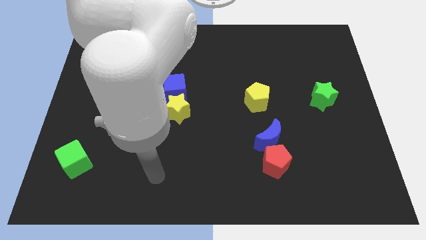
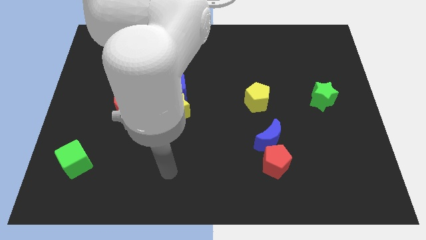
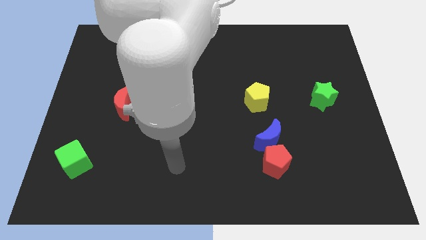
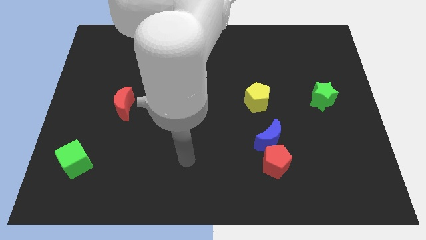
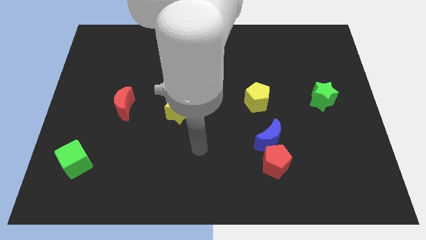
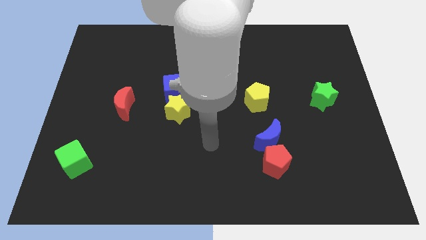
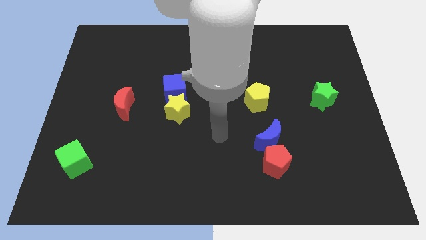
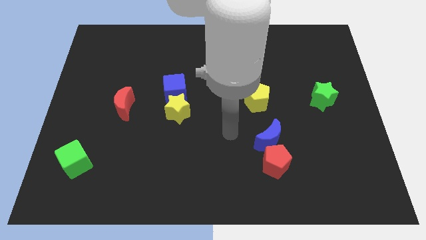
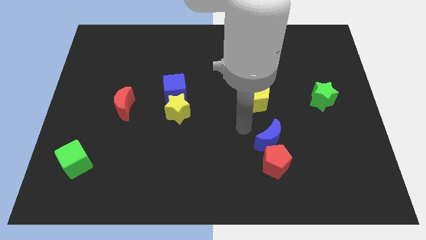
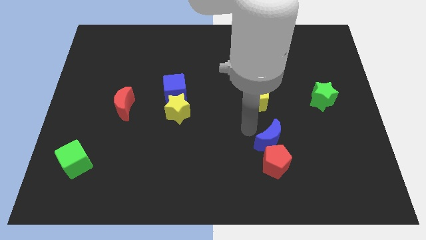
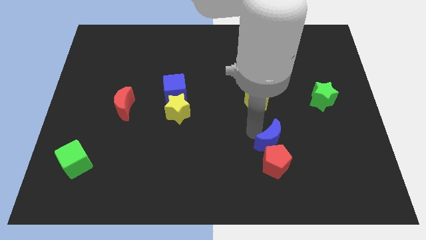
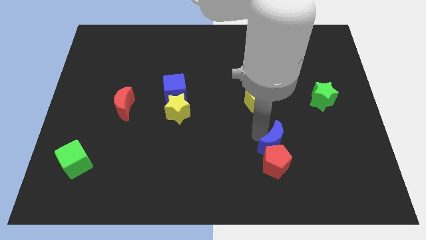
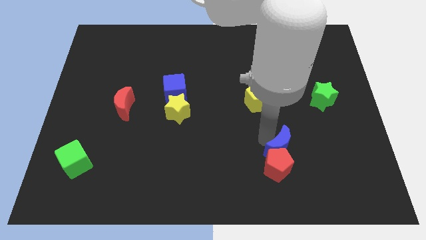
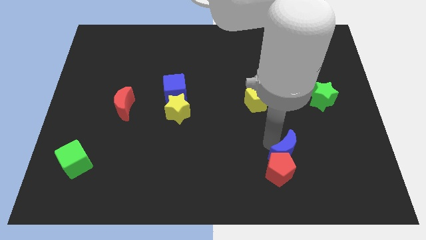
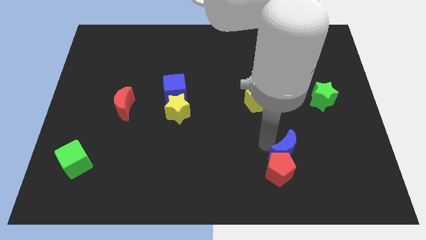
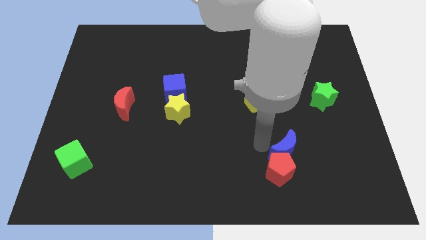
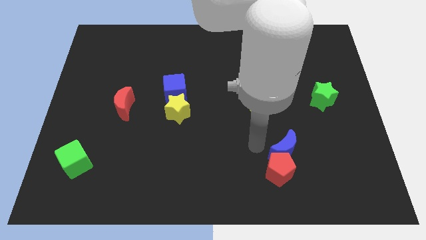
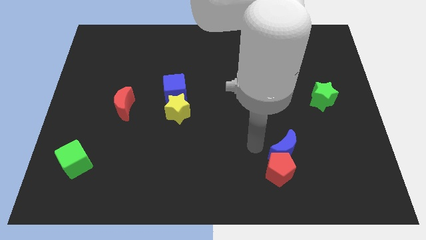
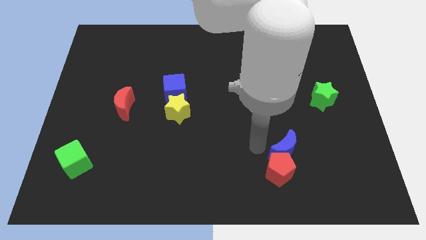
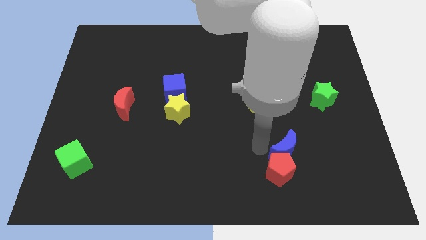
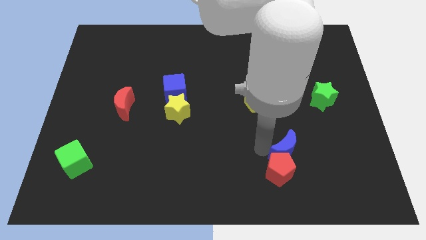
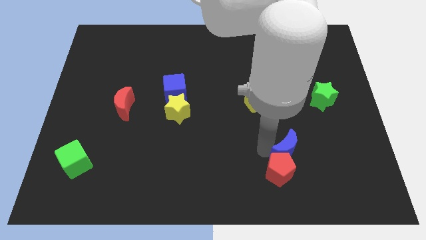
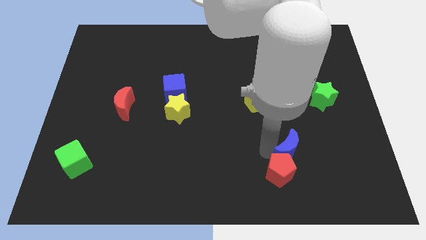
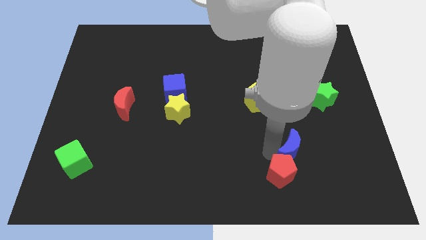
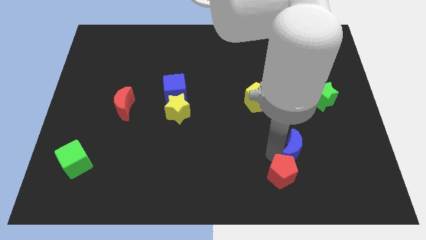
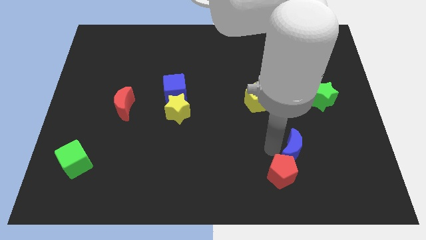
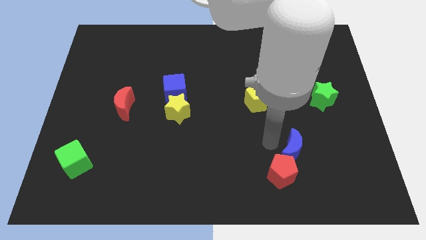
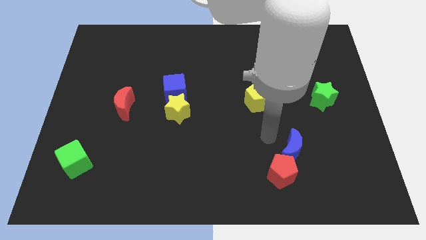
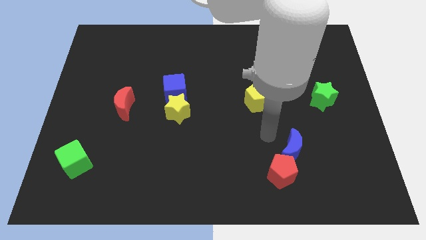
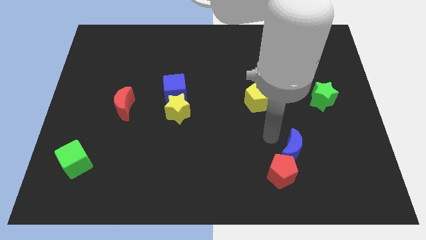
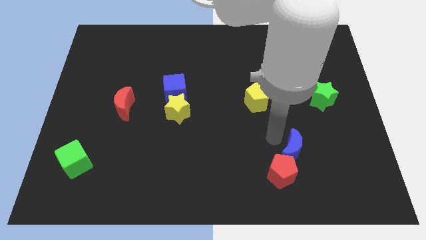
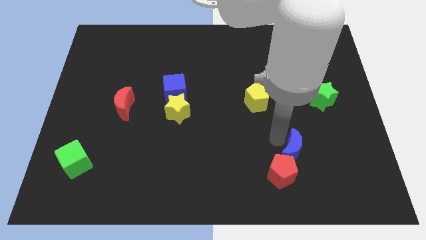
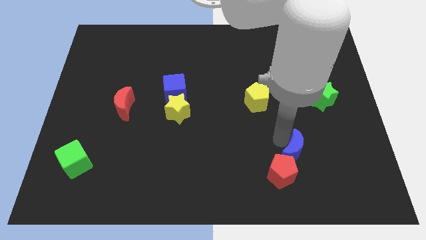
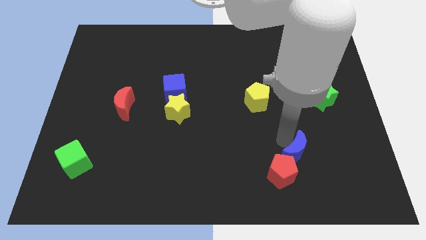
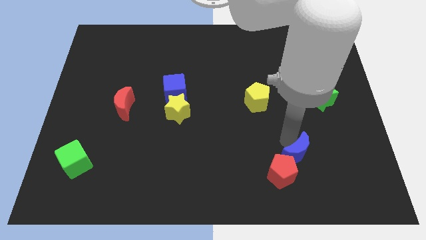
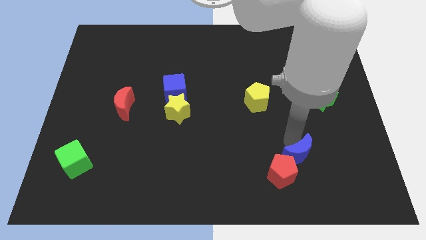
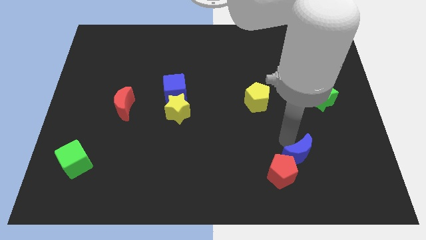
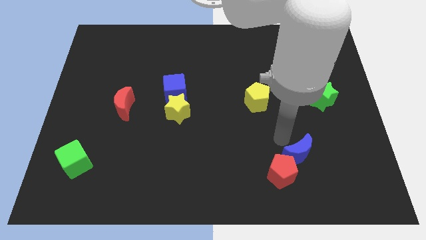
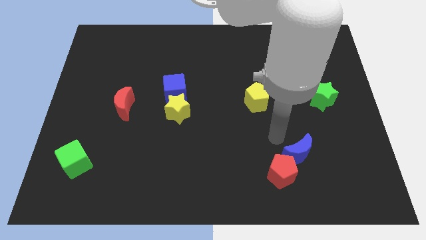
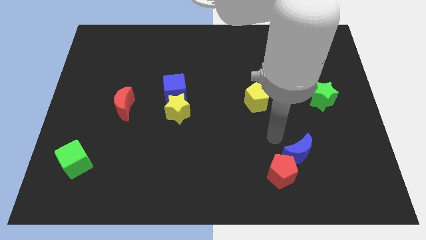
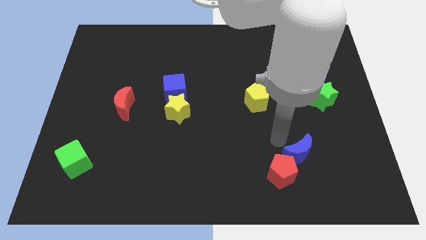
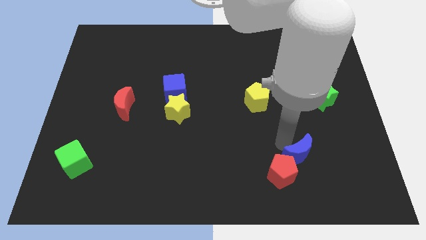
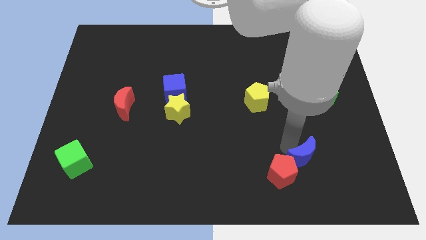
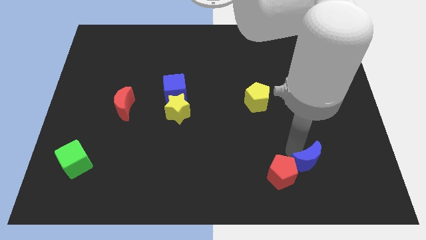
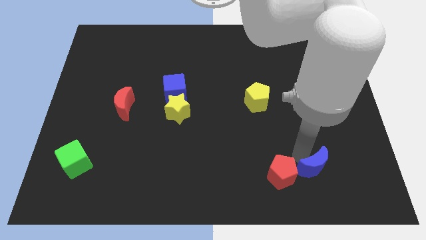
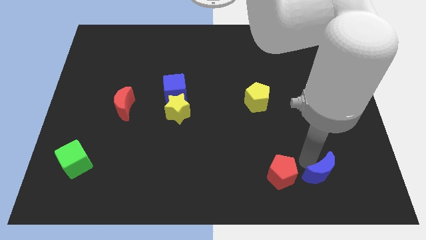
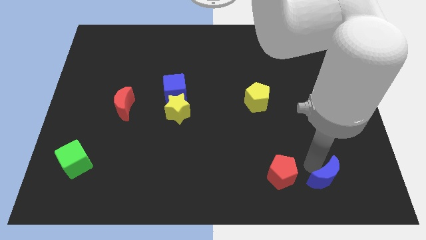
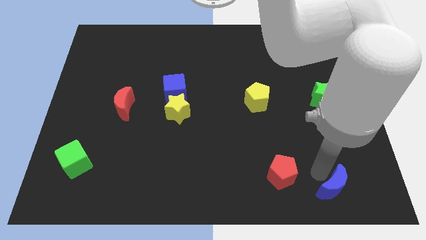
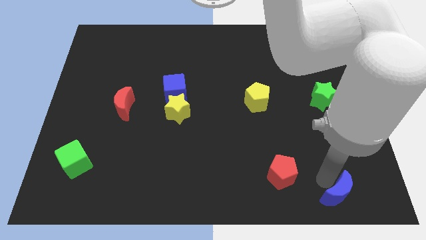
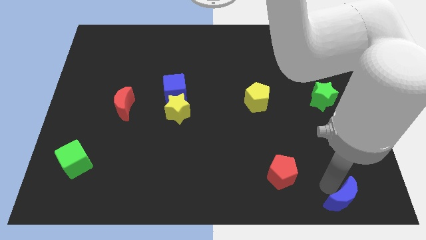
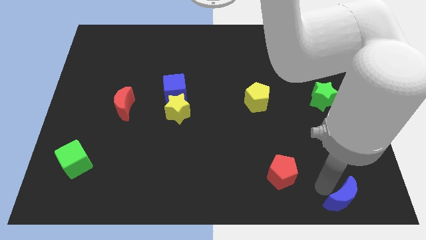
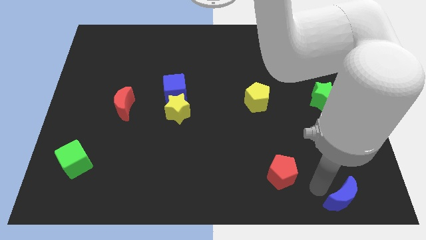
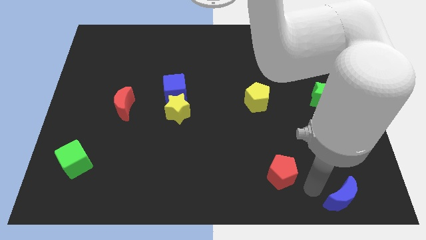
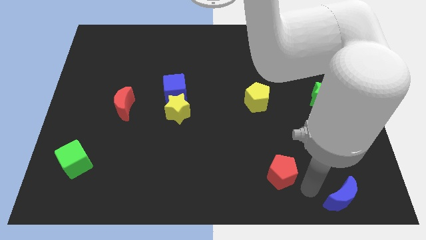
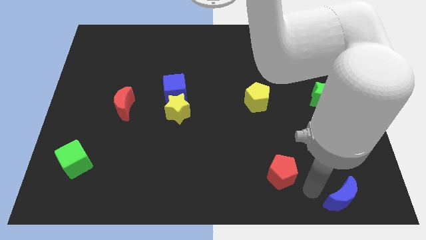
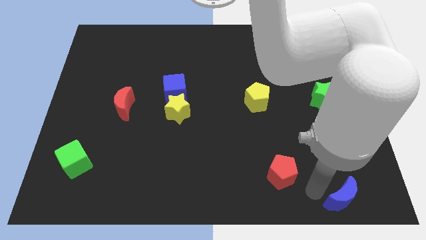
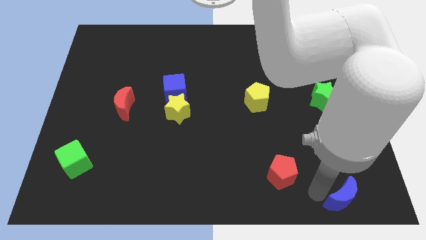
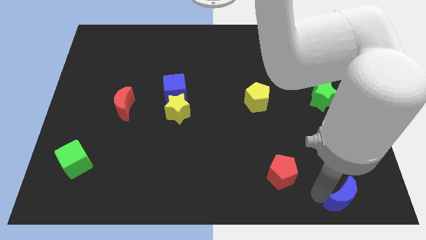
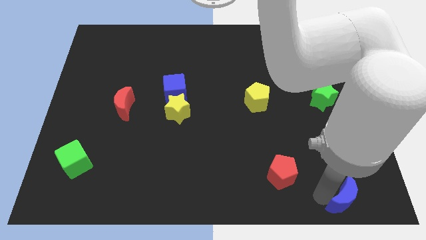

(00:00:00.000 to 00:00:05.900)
put the blue moon to the bottom right corner
